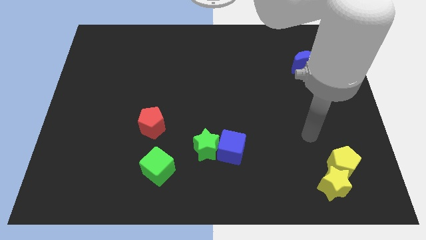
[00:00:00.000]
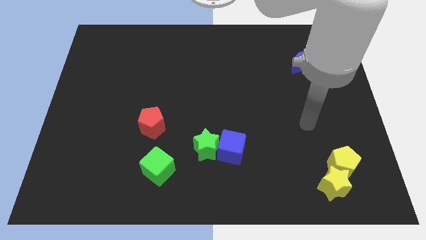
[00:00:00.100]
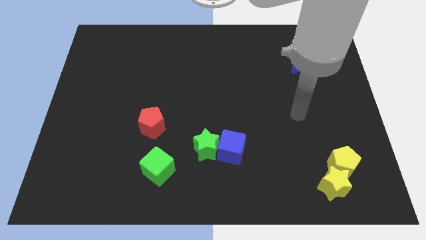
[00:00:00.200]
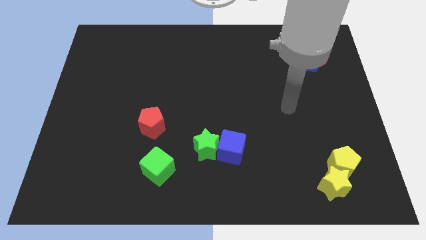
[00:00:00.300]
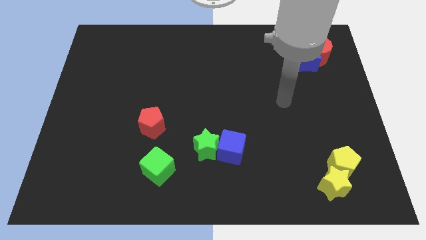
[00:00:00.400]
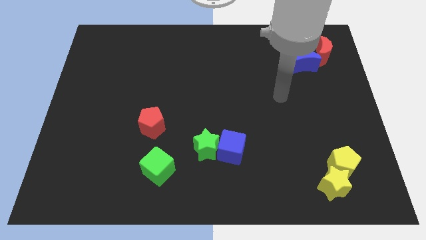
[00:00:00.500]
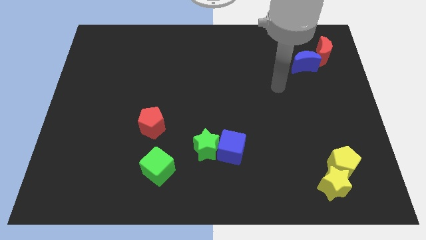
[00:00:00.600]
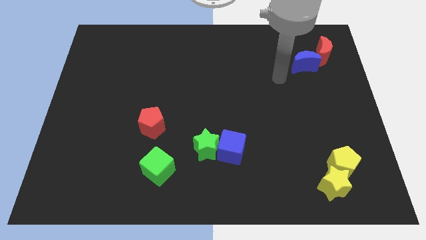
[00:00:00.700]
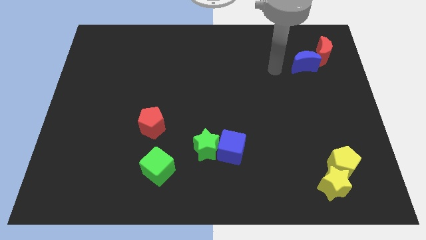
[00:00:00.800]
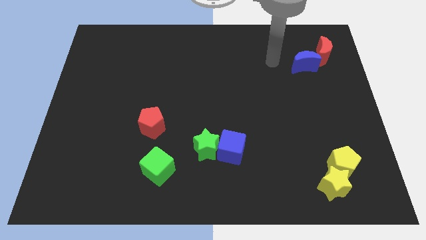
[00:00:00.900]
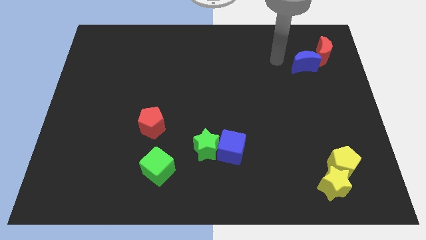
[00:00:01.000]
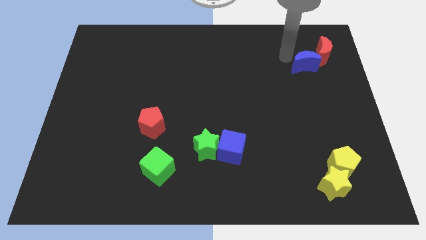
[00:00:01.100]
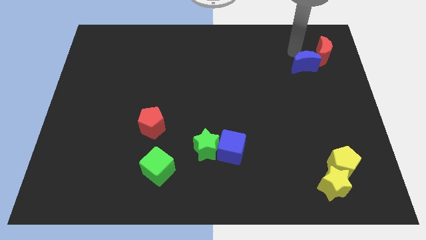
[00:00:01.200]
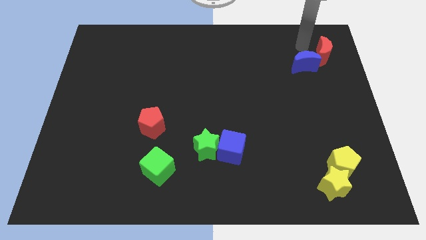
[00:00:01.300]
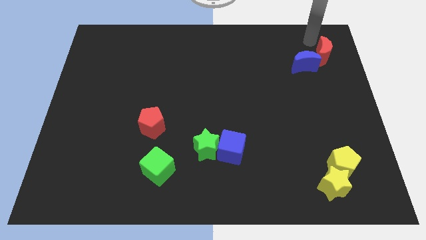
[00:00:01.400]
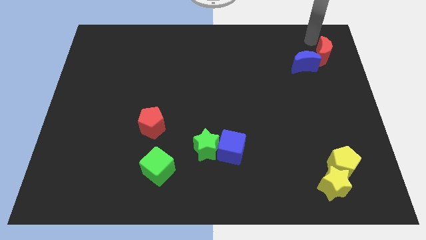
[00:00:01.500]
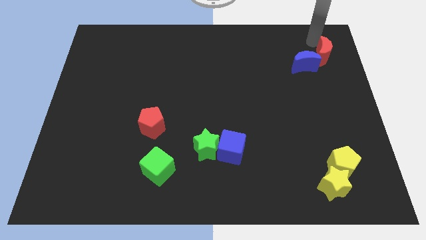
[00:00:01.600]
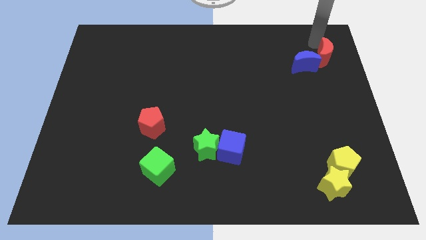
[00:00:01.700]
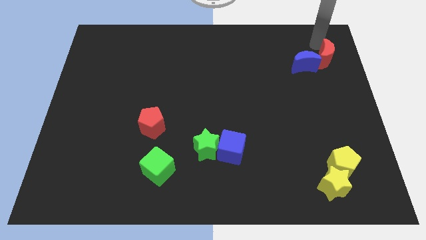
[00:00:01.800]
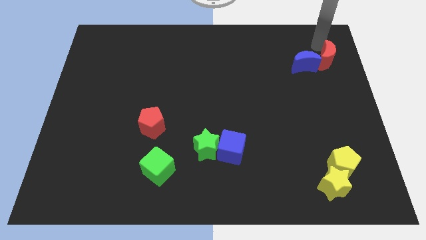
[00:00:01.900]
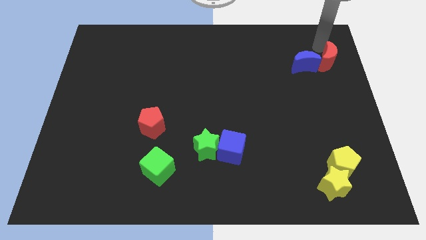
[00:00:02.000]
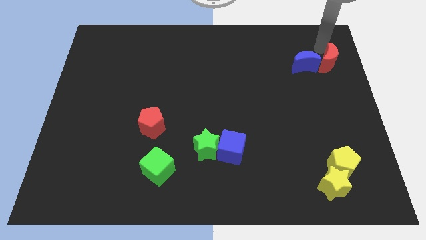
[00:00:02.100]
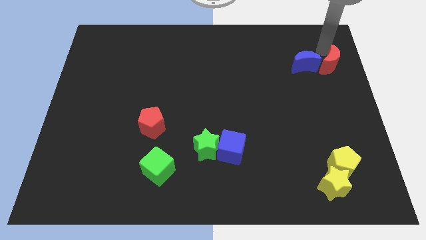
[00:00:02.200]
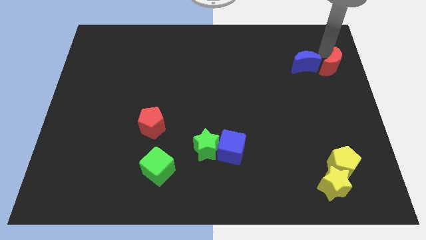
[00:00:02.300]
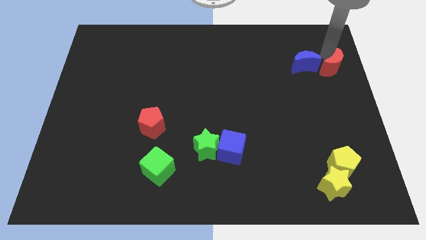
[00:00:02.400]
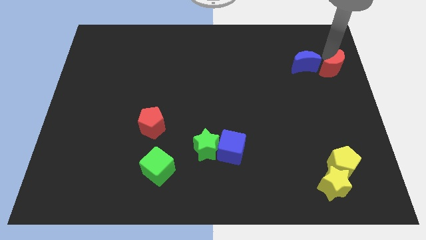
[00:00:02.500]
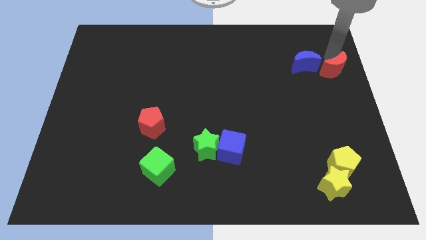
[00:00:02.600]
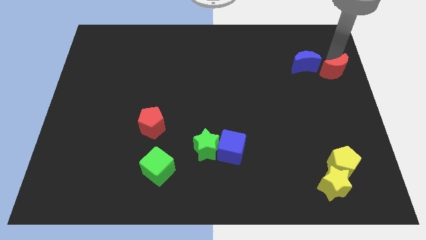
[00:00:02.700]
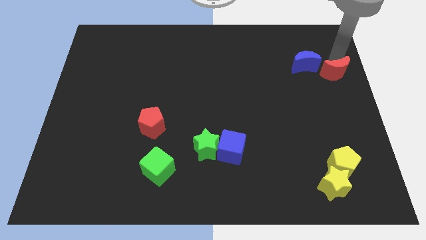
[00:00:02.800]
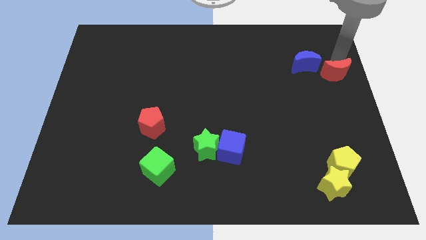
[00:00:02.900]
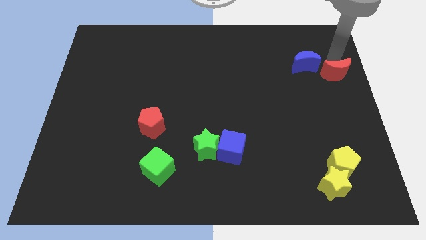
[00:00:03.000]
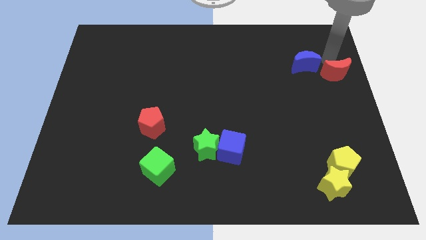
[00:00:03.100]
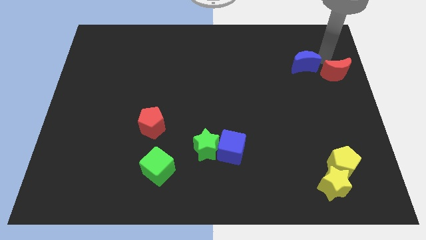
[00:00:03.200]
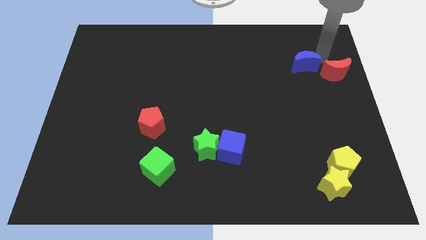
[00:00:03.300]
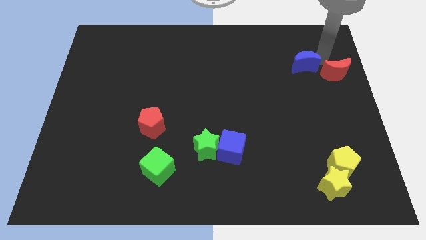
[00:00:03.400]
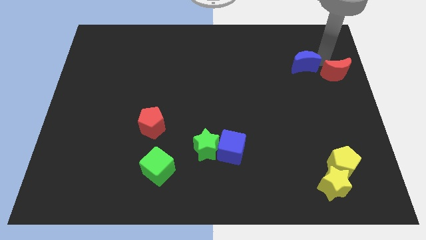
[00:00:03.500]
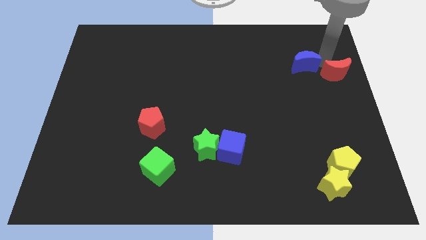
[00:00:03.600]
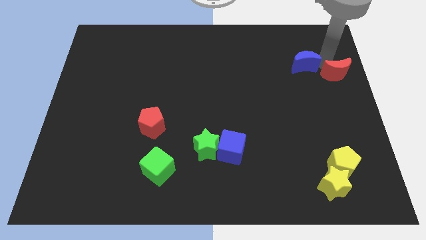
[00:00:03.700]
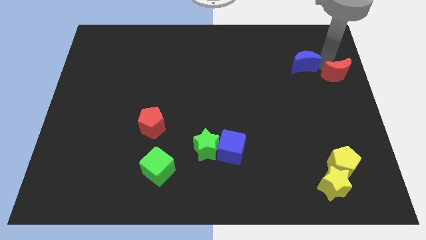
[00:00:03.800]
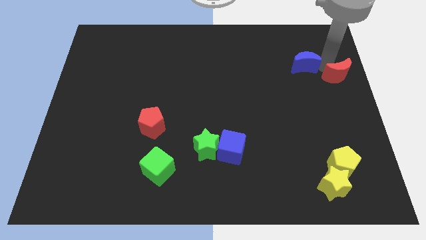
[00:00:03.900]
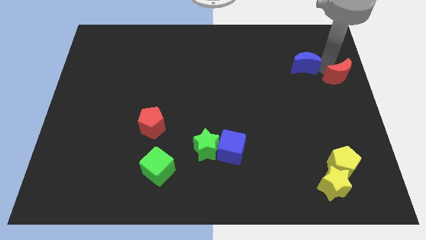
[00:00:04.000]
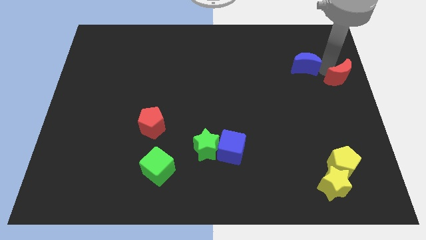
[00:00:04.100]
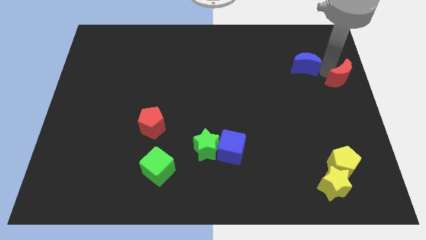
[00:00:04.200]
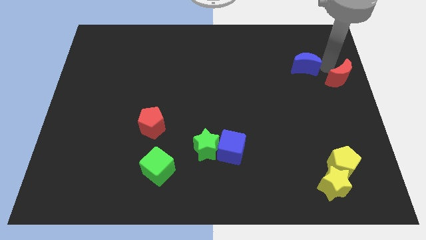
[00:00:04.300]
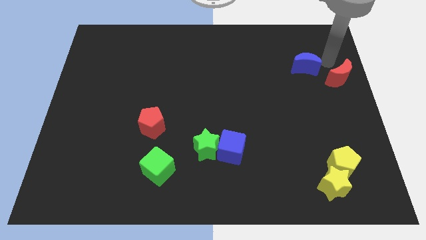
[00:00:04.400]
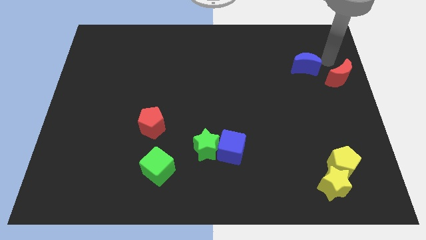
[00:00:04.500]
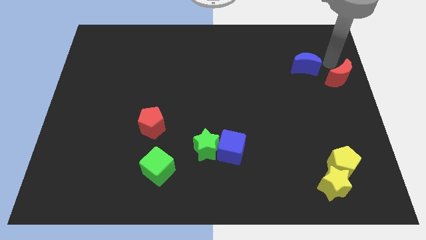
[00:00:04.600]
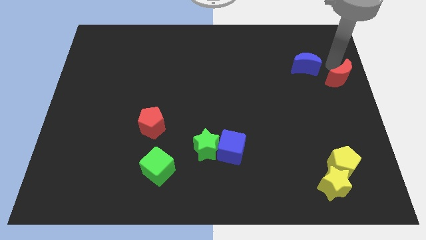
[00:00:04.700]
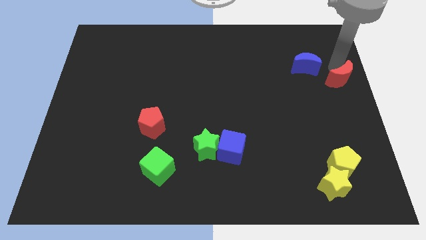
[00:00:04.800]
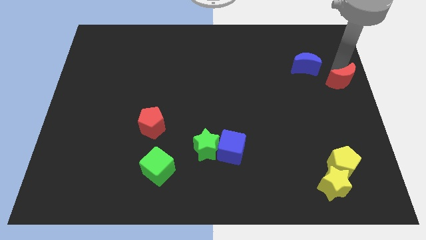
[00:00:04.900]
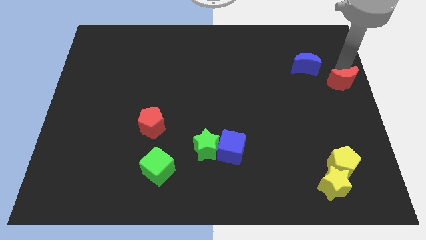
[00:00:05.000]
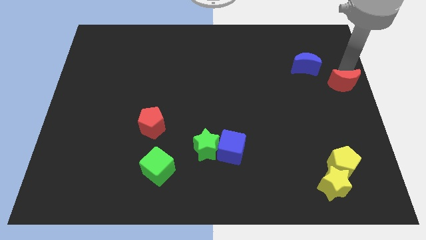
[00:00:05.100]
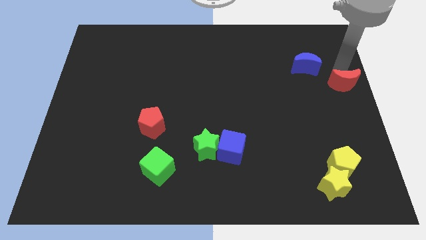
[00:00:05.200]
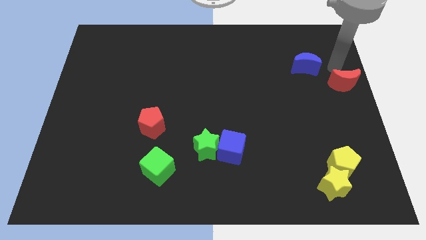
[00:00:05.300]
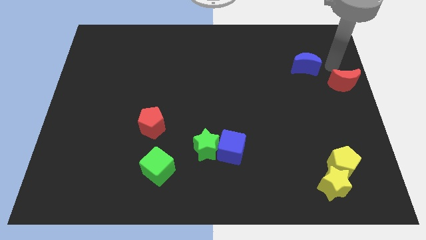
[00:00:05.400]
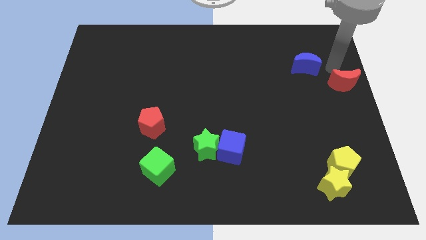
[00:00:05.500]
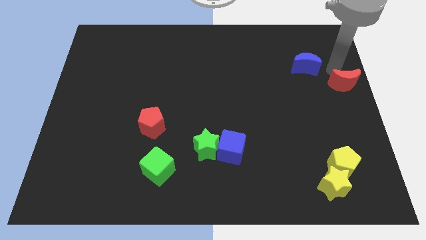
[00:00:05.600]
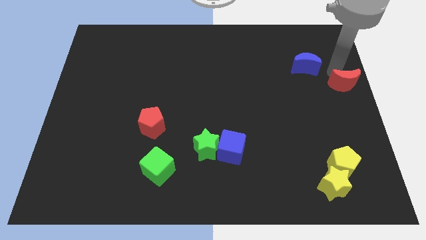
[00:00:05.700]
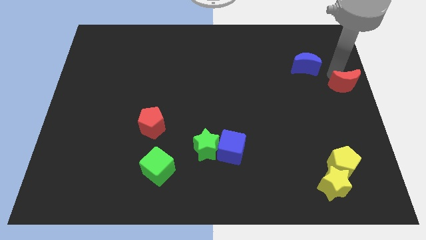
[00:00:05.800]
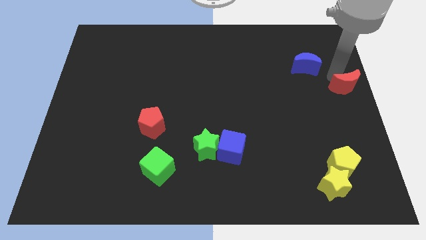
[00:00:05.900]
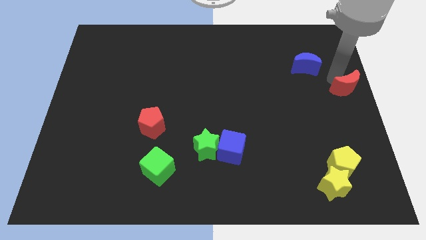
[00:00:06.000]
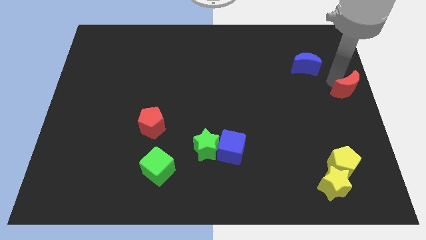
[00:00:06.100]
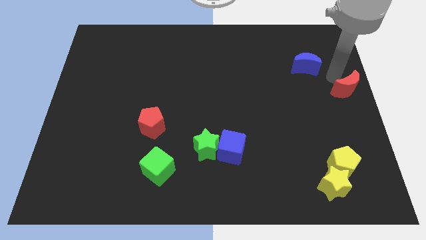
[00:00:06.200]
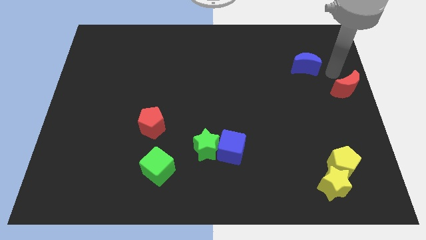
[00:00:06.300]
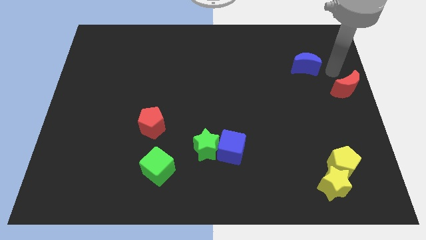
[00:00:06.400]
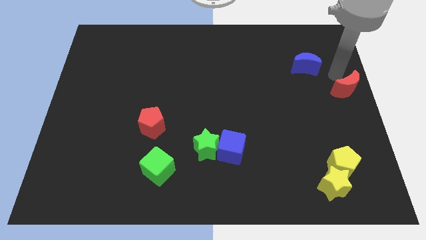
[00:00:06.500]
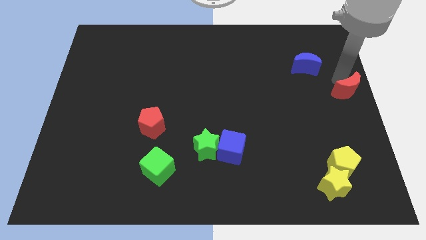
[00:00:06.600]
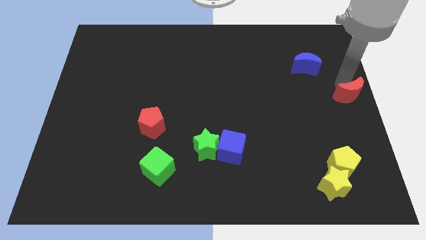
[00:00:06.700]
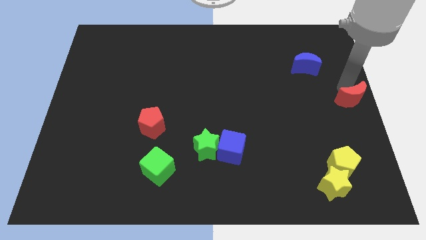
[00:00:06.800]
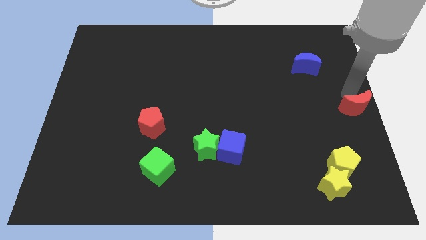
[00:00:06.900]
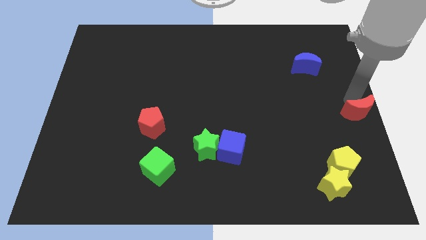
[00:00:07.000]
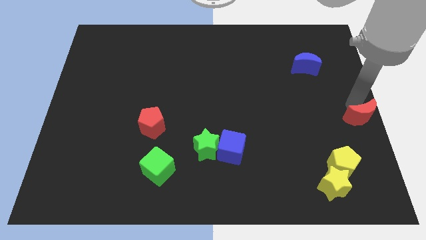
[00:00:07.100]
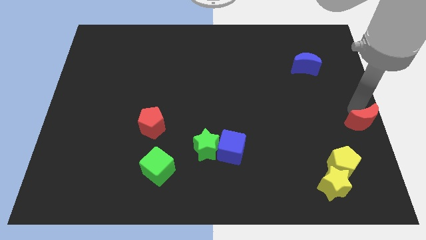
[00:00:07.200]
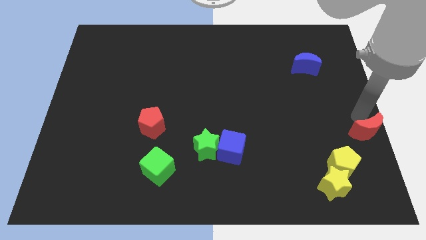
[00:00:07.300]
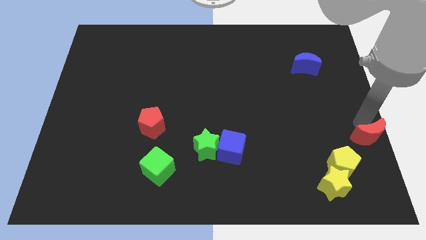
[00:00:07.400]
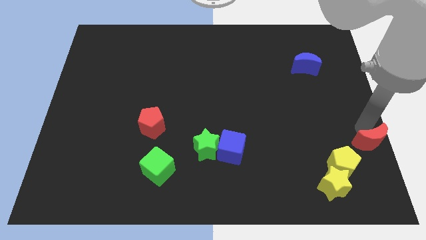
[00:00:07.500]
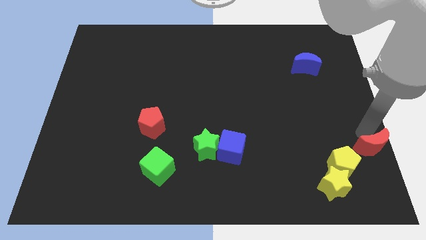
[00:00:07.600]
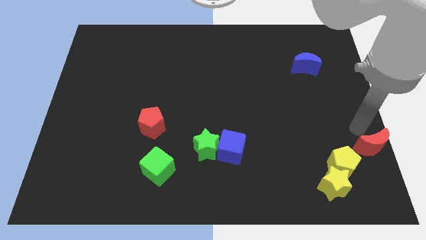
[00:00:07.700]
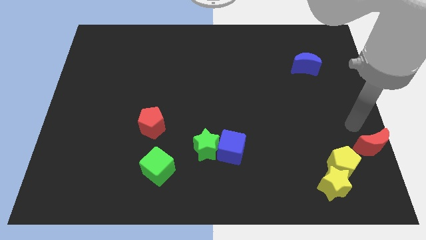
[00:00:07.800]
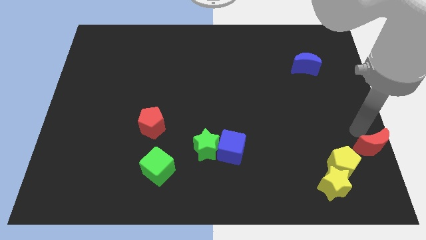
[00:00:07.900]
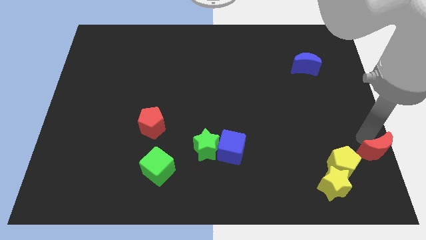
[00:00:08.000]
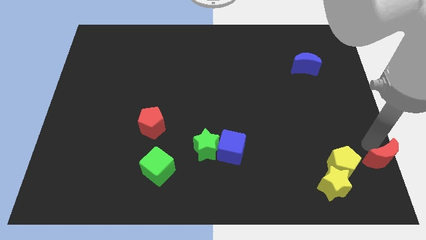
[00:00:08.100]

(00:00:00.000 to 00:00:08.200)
put the red moon to the bottom right of the board
